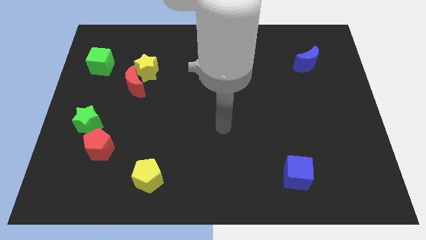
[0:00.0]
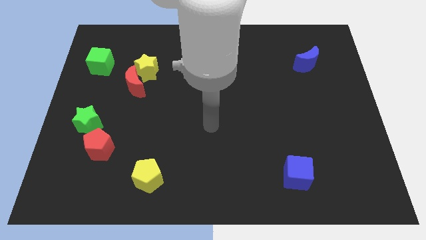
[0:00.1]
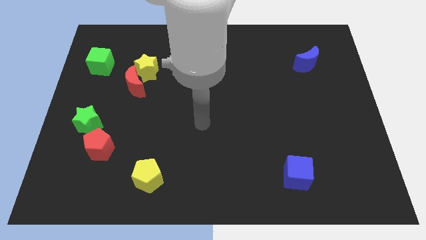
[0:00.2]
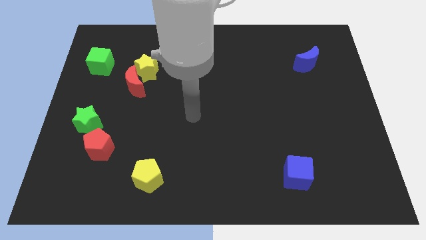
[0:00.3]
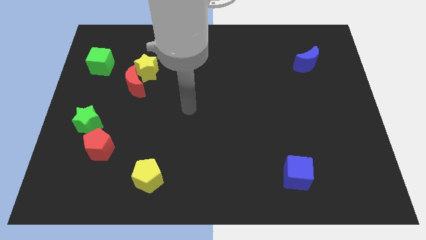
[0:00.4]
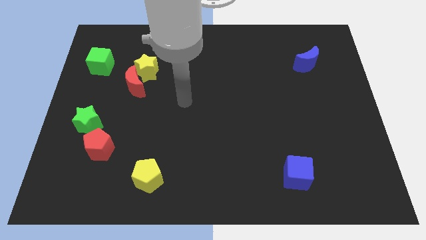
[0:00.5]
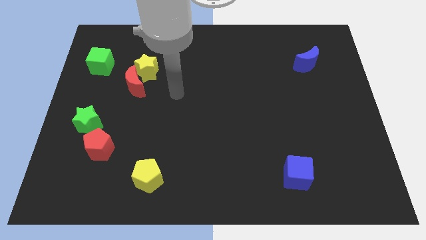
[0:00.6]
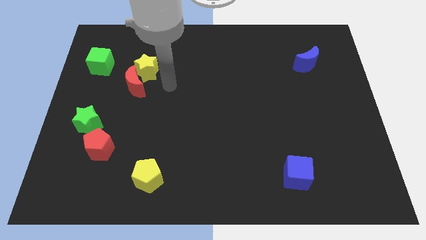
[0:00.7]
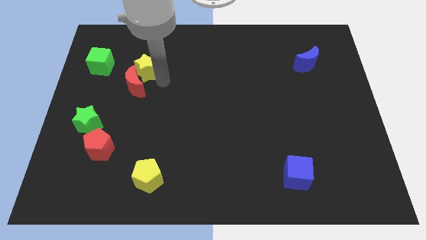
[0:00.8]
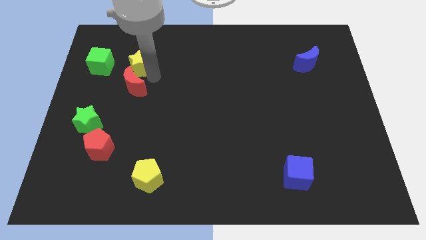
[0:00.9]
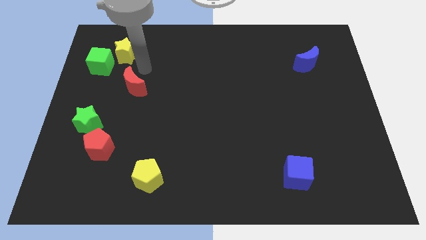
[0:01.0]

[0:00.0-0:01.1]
move the red moon away from the yellow star

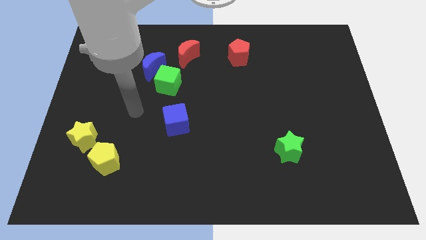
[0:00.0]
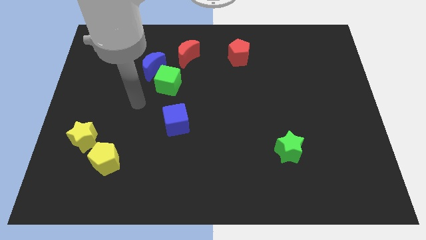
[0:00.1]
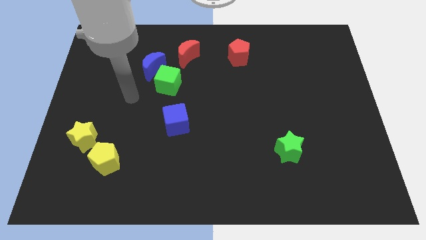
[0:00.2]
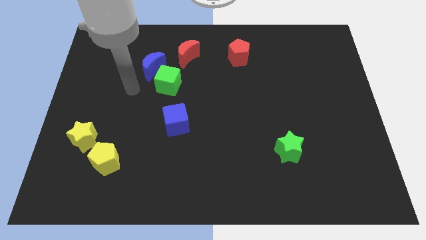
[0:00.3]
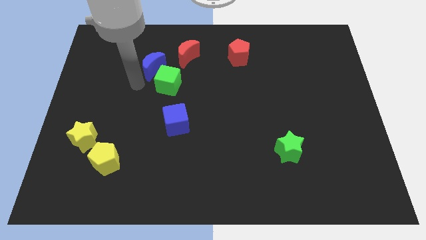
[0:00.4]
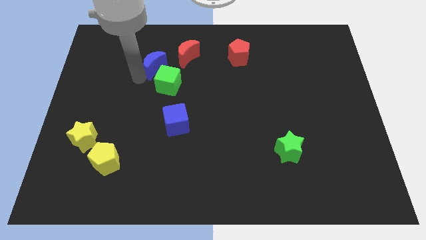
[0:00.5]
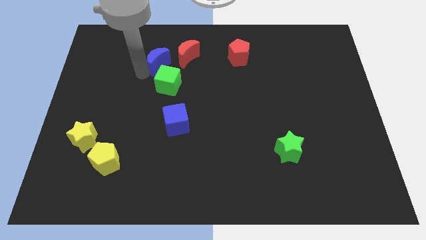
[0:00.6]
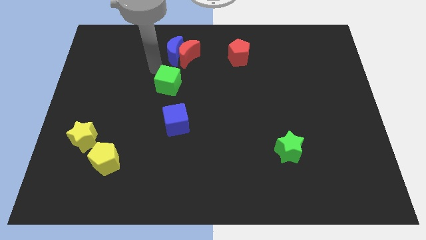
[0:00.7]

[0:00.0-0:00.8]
separate the green cube from the blue moon

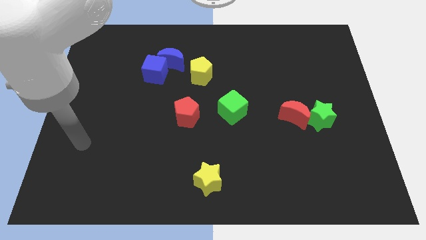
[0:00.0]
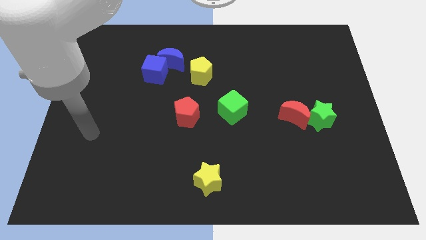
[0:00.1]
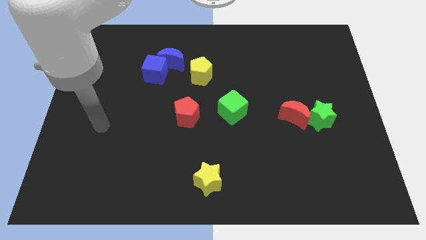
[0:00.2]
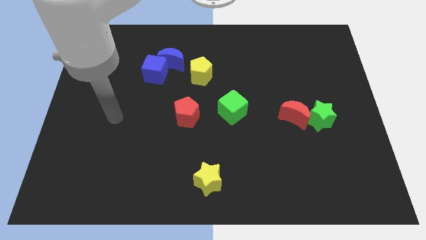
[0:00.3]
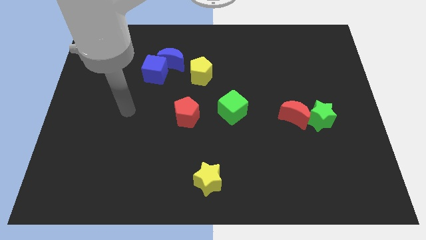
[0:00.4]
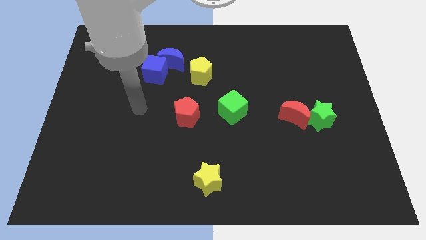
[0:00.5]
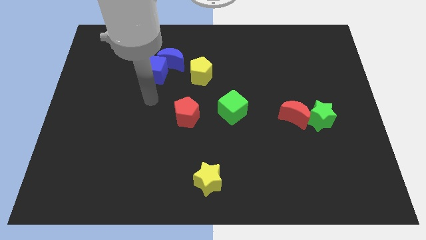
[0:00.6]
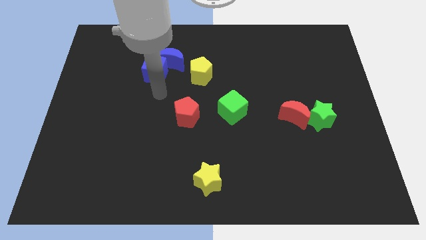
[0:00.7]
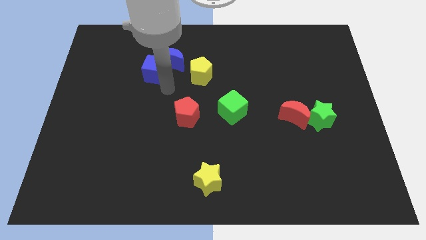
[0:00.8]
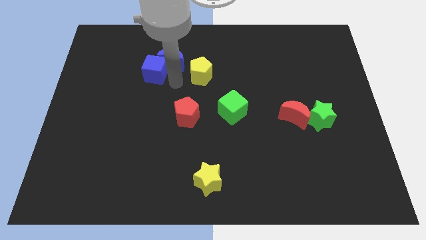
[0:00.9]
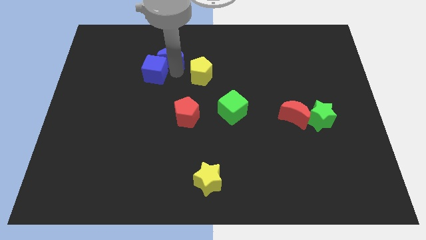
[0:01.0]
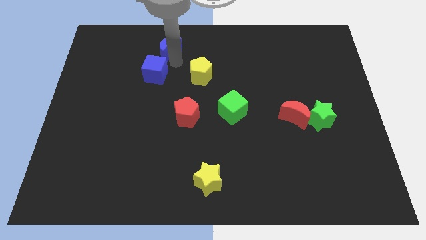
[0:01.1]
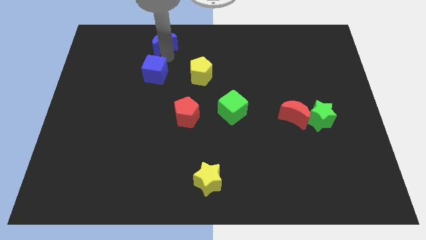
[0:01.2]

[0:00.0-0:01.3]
pull the blue cube apart from the blue moon

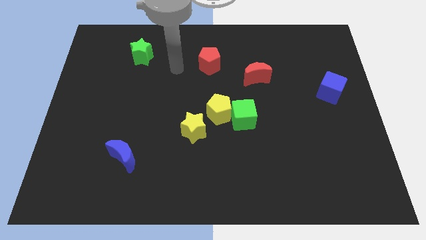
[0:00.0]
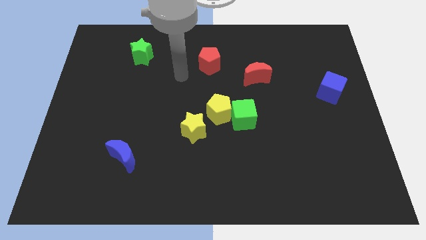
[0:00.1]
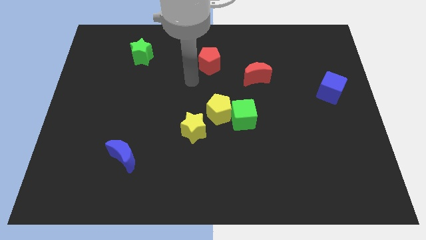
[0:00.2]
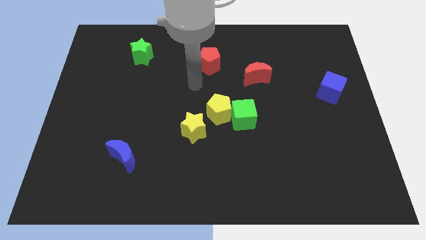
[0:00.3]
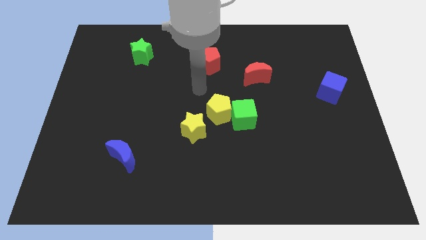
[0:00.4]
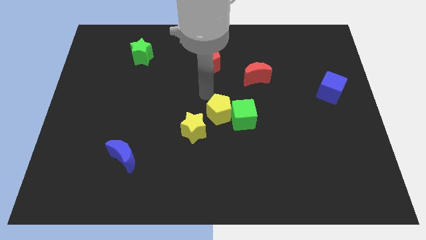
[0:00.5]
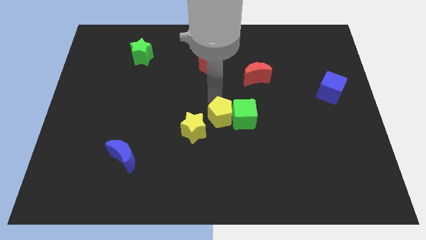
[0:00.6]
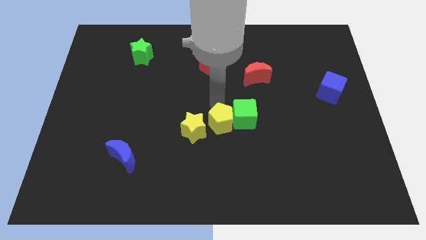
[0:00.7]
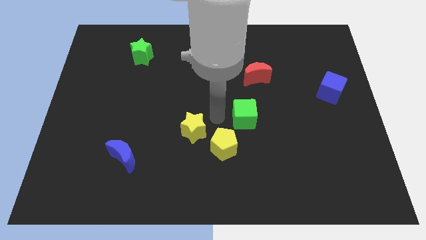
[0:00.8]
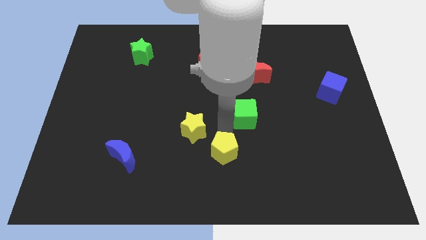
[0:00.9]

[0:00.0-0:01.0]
separate the green cube from the yellow pentagon

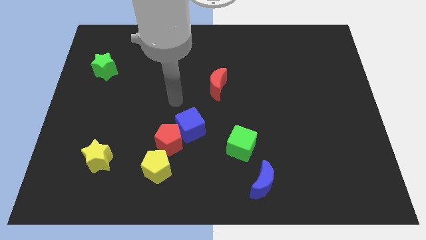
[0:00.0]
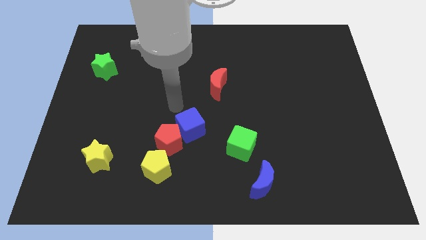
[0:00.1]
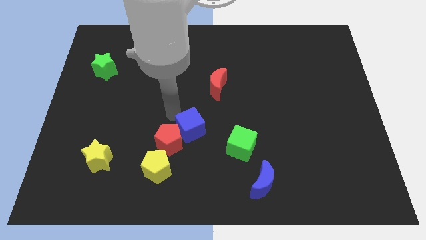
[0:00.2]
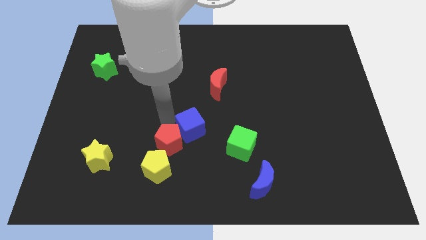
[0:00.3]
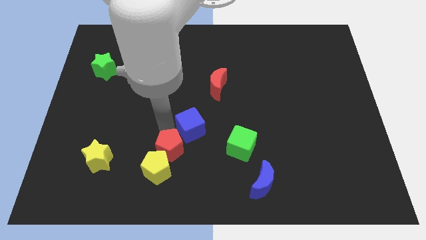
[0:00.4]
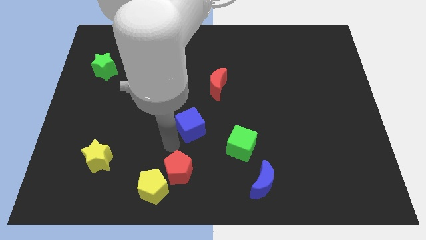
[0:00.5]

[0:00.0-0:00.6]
move the blue cube away from the red pentagon

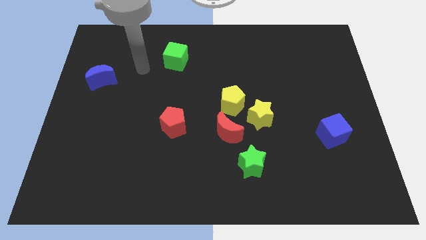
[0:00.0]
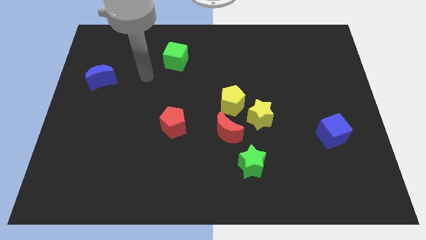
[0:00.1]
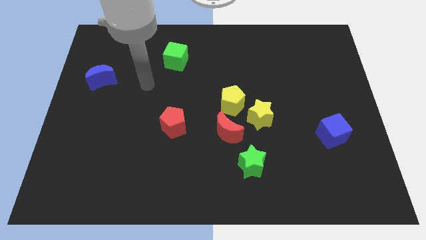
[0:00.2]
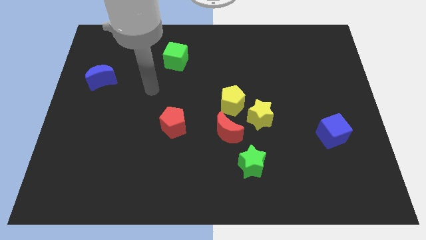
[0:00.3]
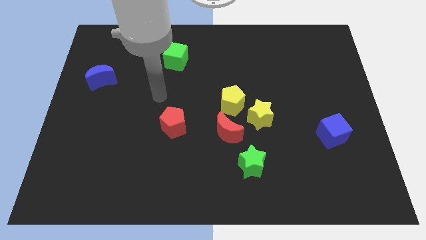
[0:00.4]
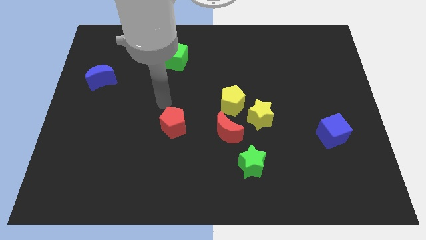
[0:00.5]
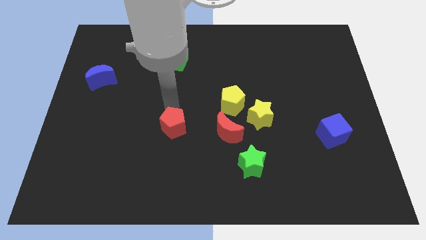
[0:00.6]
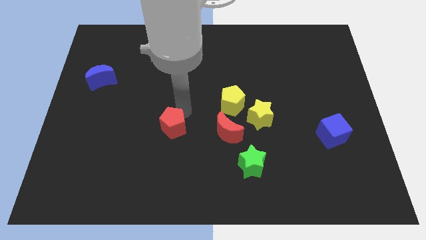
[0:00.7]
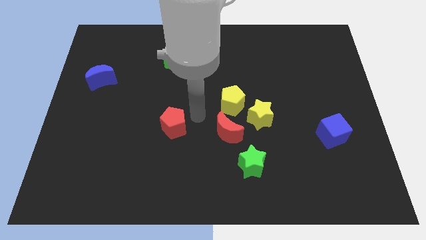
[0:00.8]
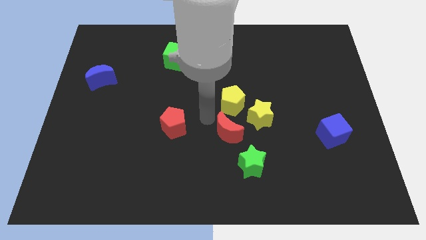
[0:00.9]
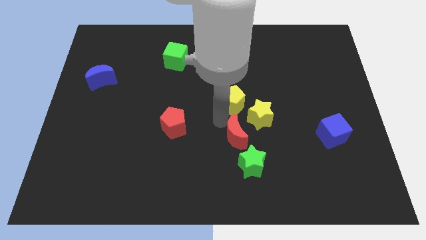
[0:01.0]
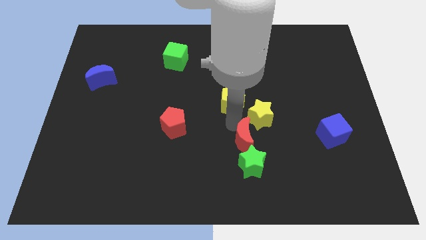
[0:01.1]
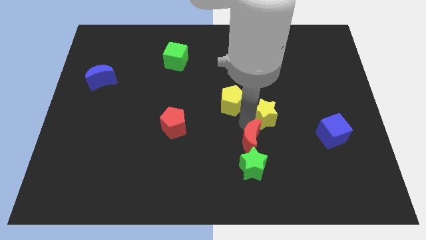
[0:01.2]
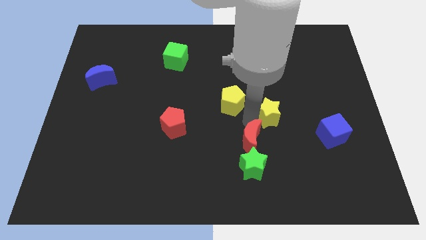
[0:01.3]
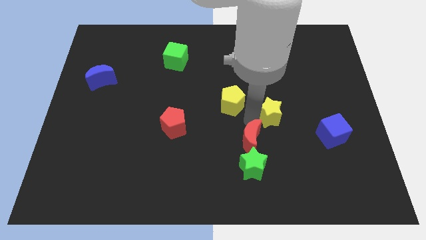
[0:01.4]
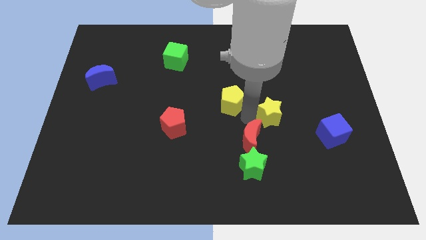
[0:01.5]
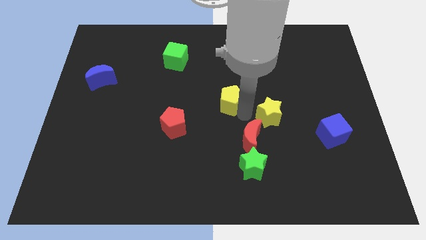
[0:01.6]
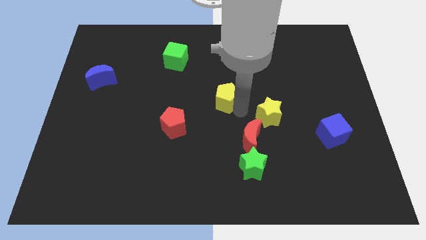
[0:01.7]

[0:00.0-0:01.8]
pull the yellow pentagon apart from the yellow star and red moon

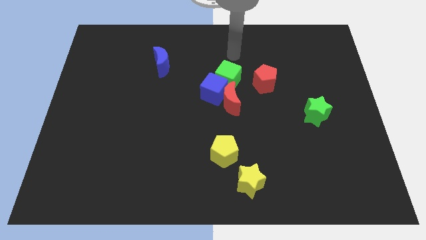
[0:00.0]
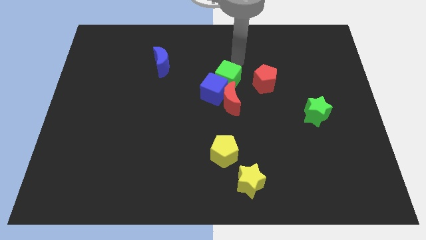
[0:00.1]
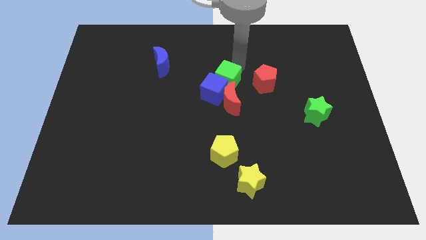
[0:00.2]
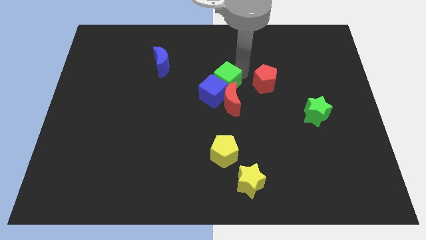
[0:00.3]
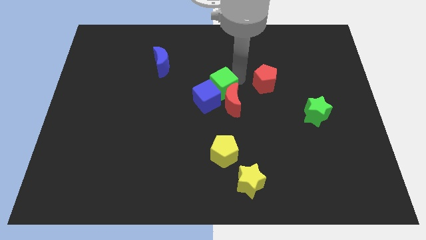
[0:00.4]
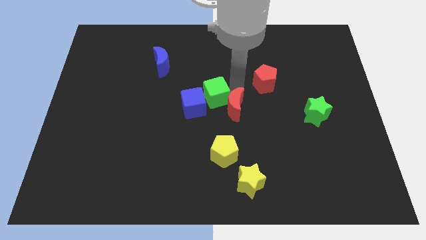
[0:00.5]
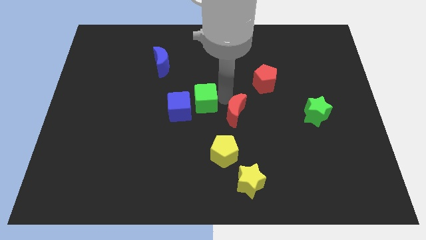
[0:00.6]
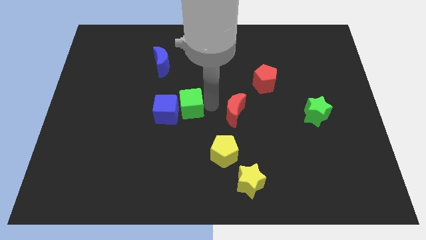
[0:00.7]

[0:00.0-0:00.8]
pull the blue cube apart from the red moon and green cube

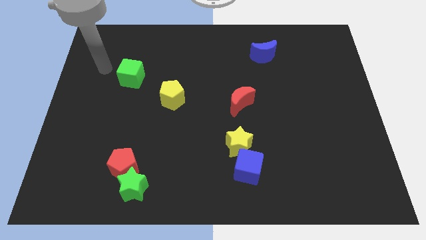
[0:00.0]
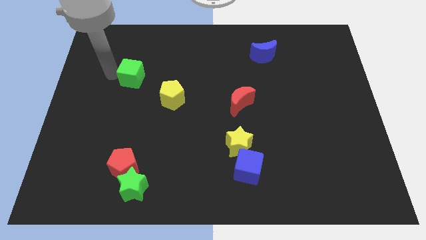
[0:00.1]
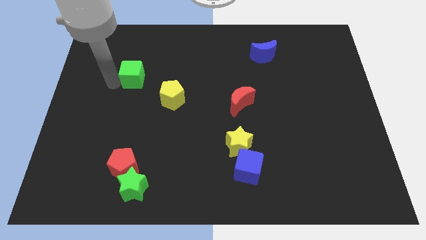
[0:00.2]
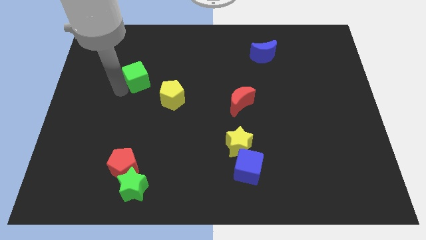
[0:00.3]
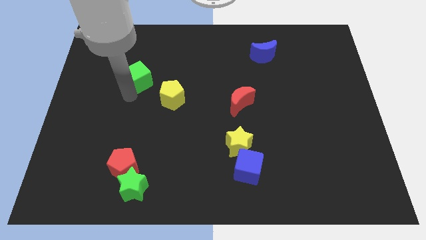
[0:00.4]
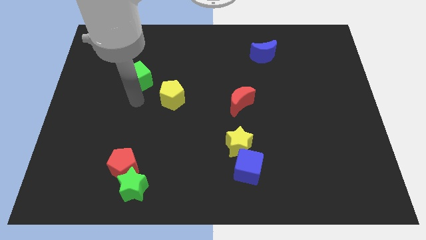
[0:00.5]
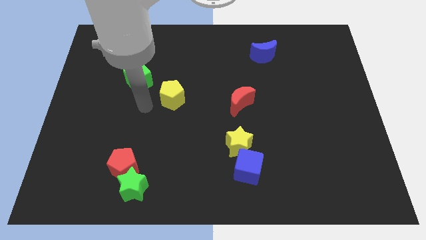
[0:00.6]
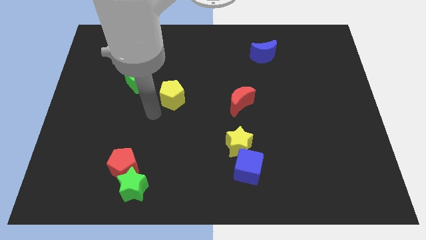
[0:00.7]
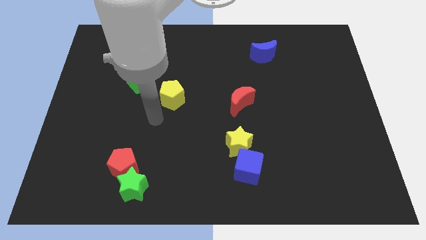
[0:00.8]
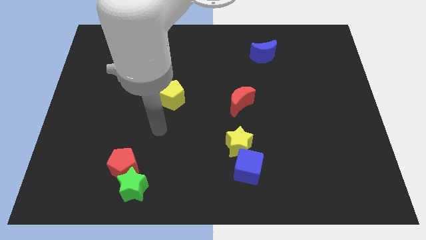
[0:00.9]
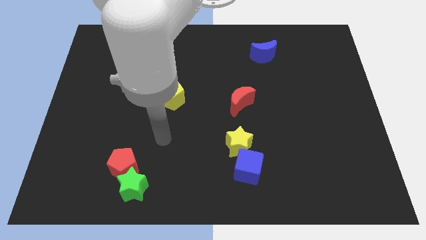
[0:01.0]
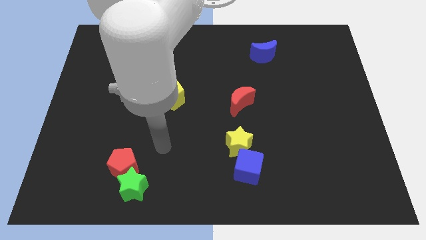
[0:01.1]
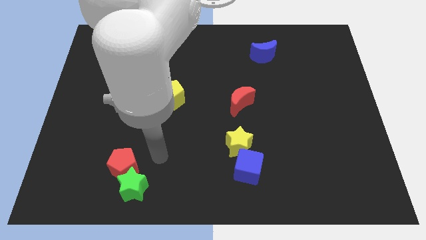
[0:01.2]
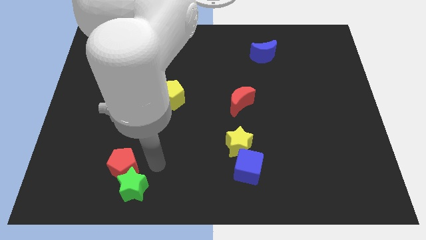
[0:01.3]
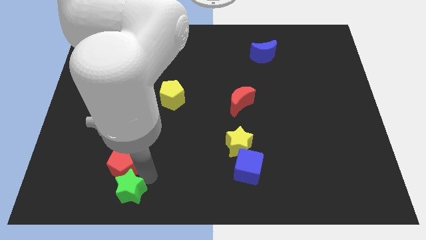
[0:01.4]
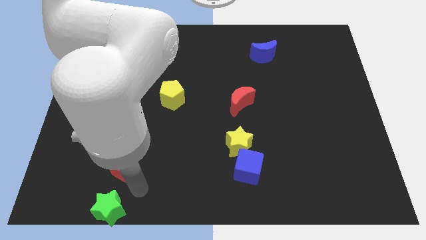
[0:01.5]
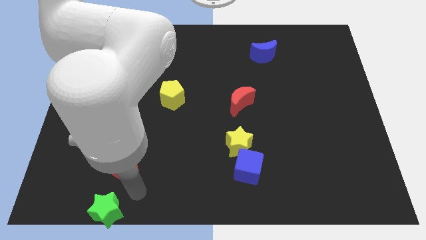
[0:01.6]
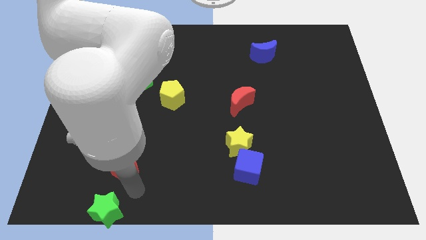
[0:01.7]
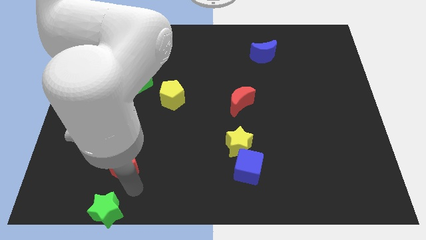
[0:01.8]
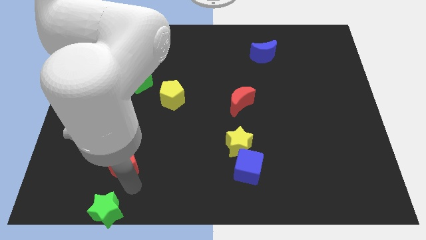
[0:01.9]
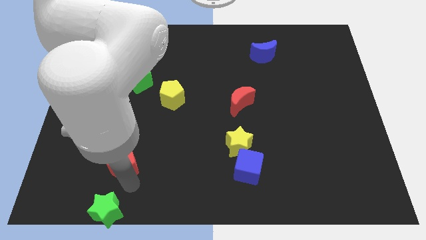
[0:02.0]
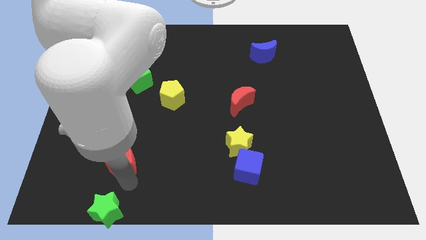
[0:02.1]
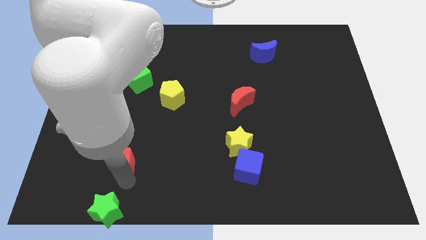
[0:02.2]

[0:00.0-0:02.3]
move the red pentagon away from the green star
